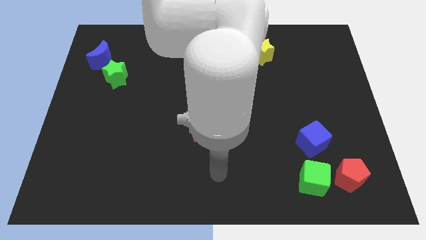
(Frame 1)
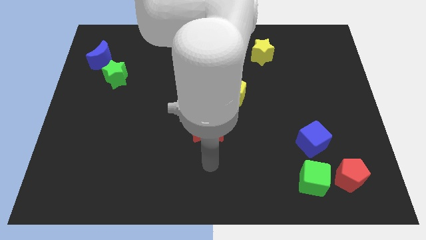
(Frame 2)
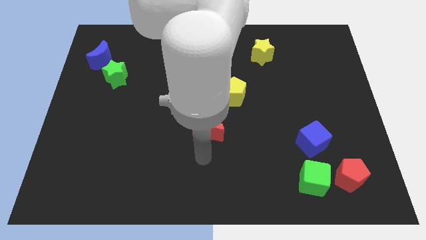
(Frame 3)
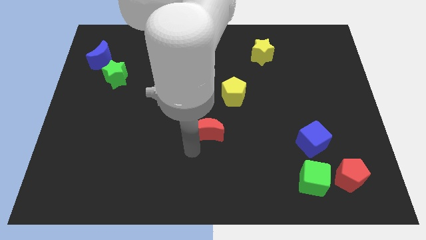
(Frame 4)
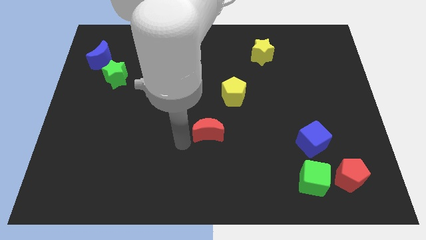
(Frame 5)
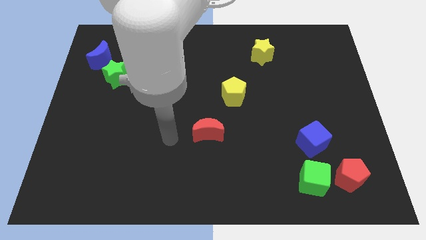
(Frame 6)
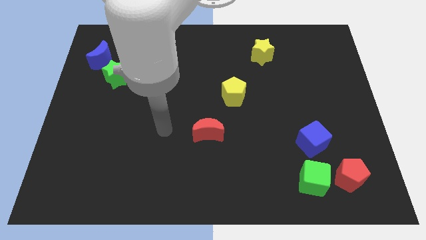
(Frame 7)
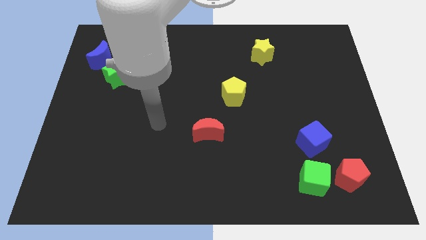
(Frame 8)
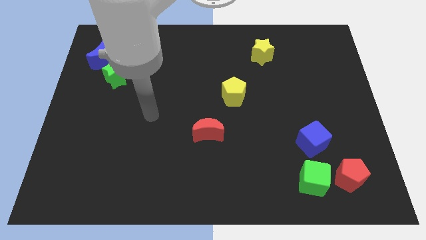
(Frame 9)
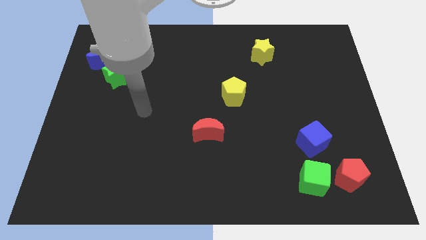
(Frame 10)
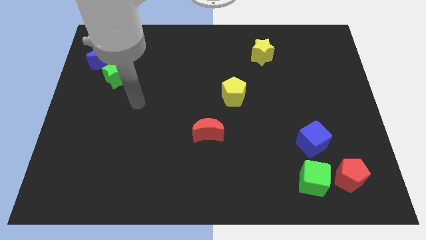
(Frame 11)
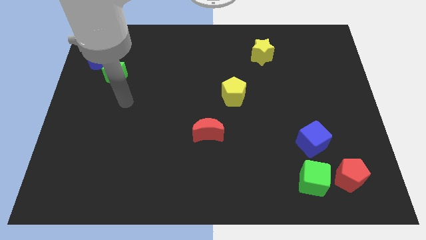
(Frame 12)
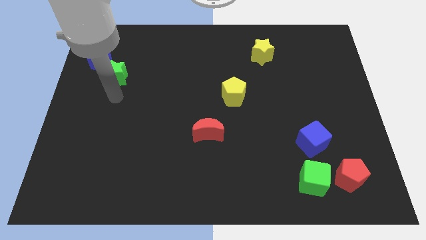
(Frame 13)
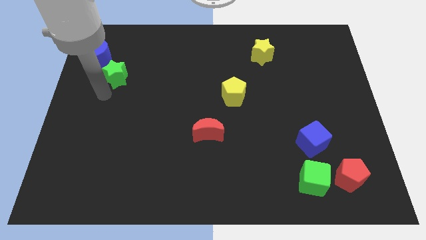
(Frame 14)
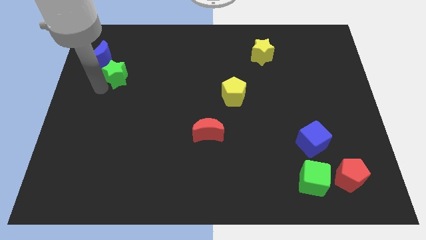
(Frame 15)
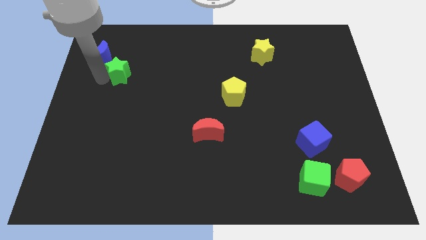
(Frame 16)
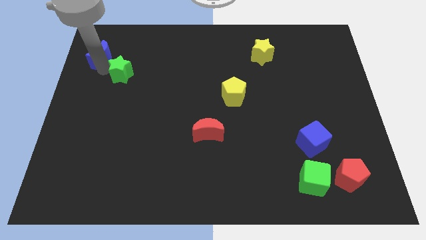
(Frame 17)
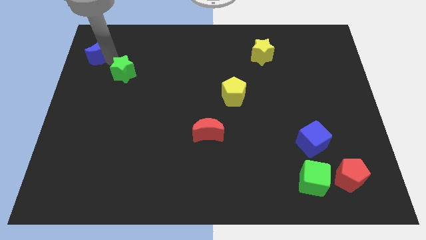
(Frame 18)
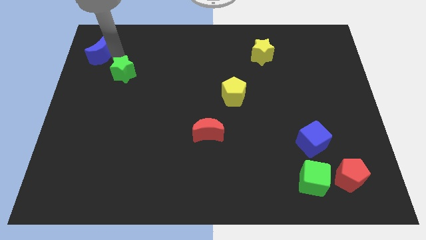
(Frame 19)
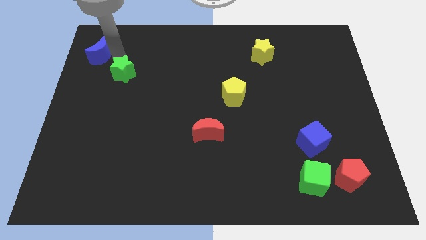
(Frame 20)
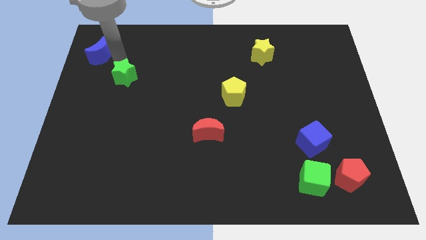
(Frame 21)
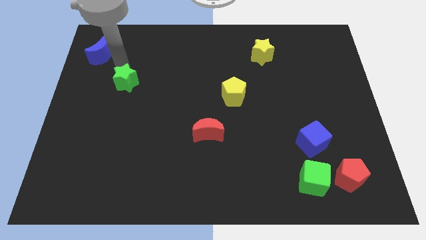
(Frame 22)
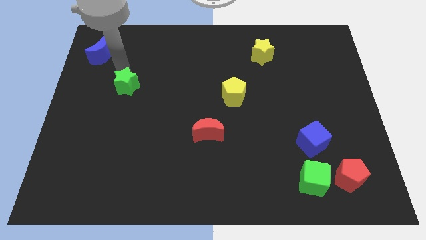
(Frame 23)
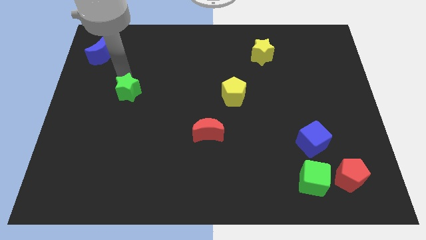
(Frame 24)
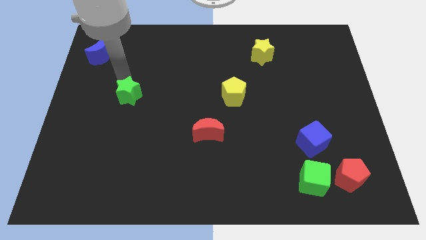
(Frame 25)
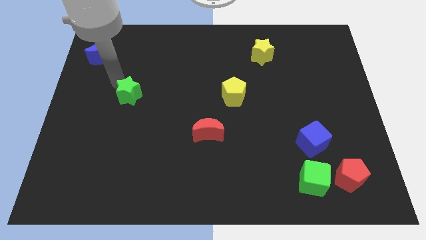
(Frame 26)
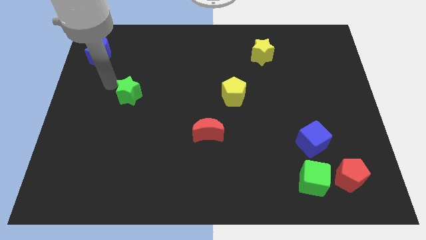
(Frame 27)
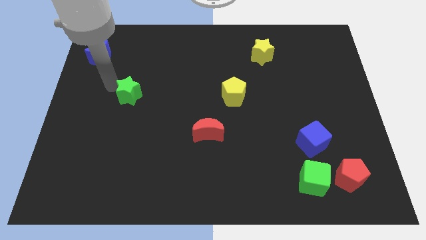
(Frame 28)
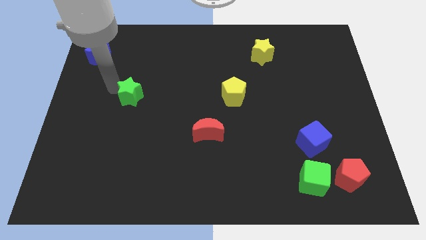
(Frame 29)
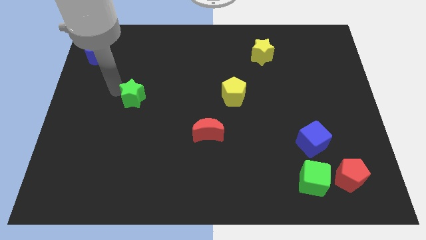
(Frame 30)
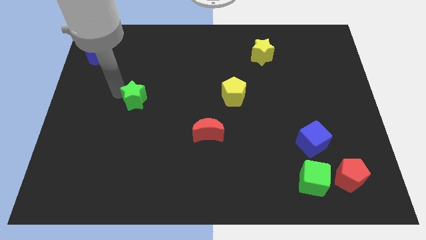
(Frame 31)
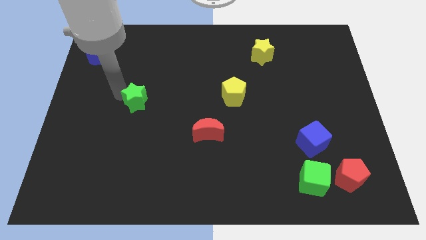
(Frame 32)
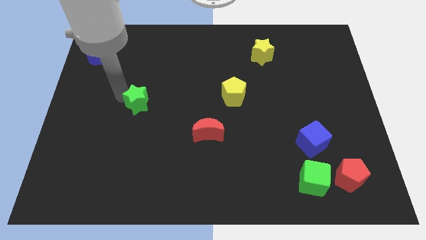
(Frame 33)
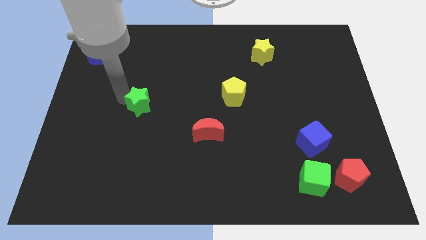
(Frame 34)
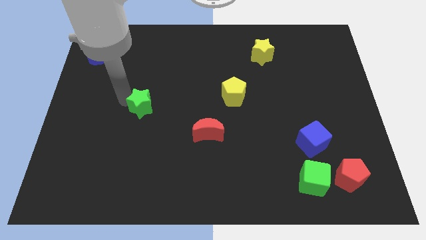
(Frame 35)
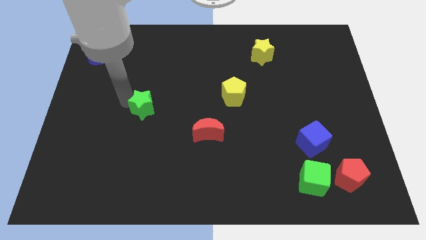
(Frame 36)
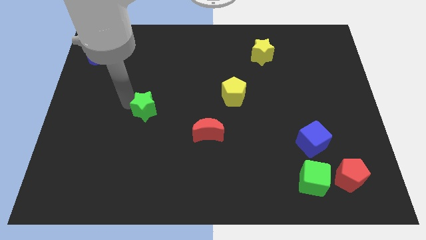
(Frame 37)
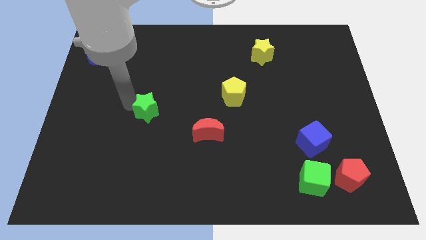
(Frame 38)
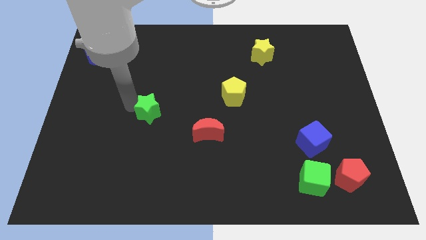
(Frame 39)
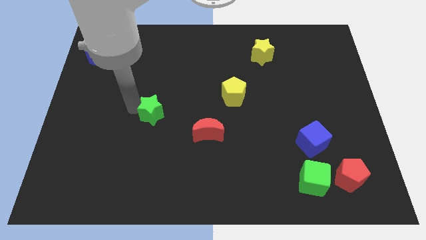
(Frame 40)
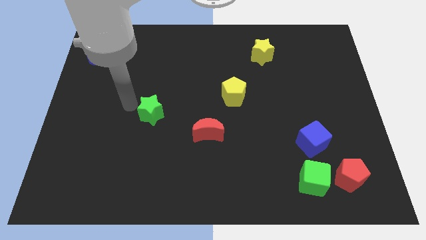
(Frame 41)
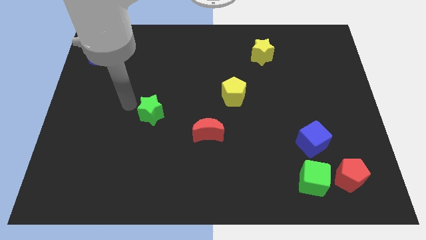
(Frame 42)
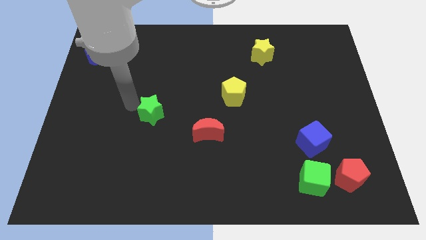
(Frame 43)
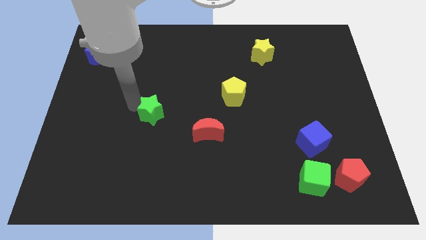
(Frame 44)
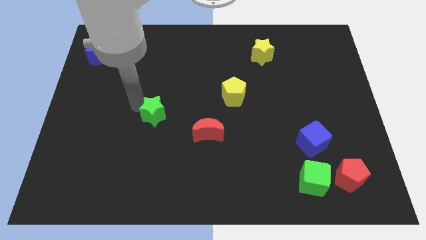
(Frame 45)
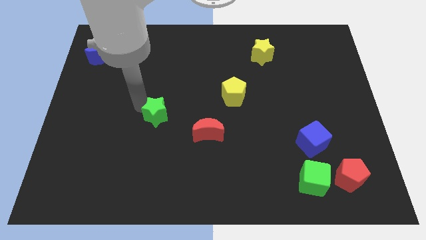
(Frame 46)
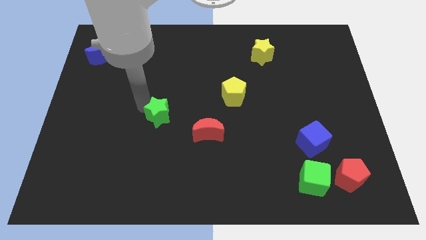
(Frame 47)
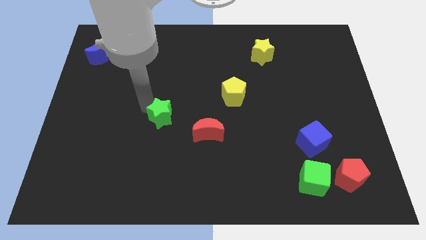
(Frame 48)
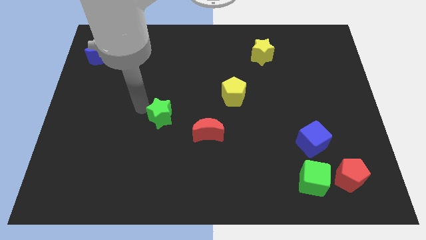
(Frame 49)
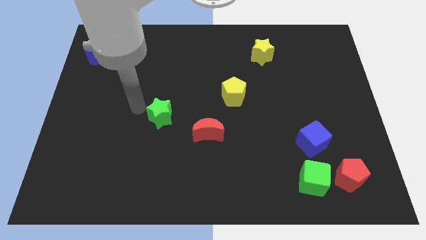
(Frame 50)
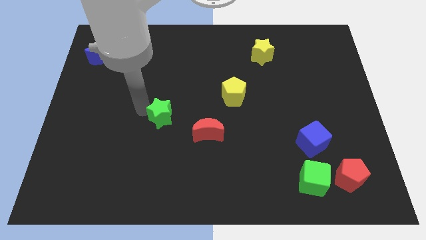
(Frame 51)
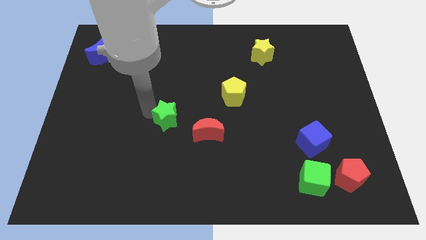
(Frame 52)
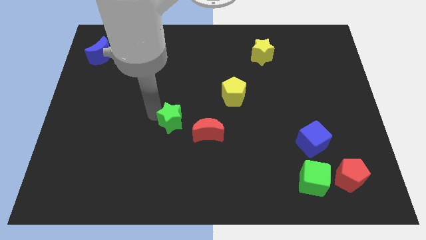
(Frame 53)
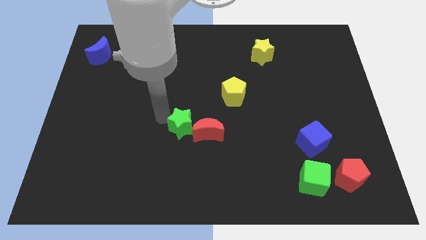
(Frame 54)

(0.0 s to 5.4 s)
slide the green star next to the red moon

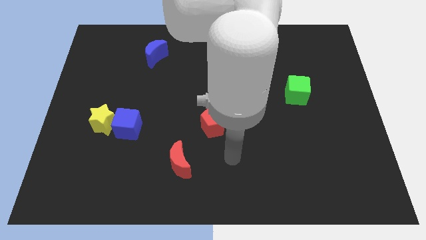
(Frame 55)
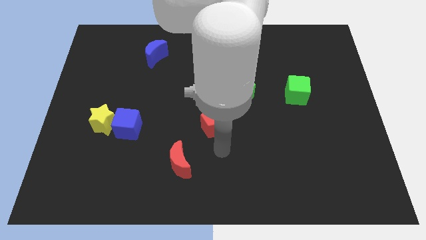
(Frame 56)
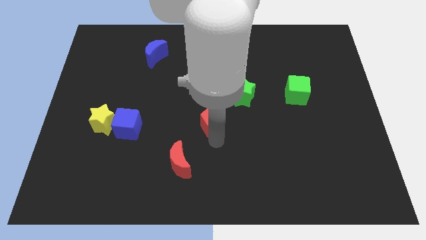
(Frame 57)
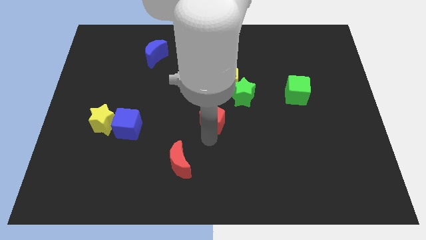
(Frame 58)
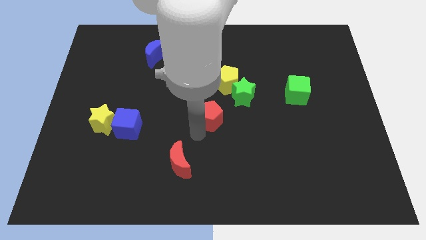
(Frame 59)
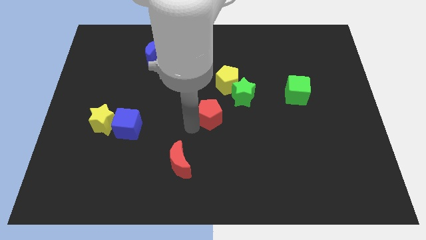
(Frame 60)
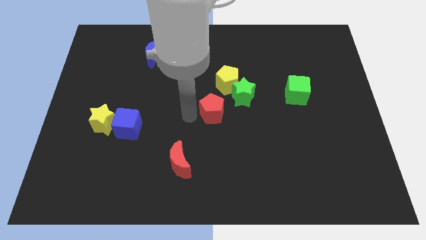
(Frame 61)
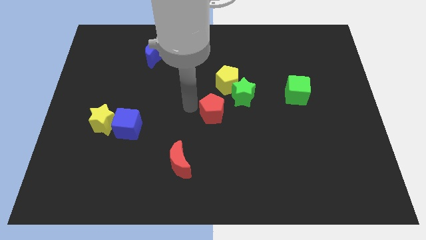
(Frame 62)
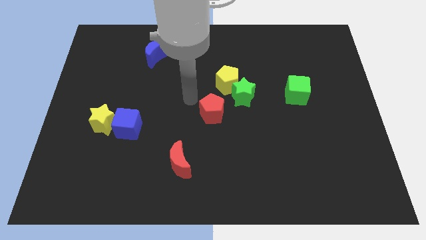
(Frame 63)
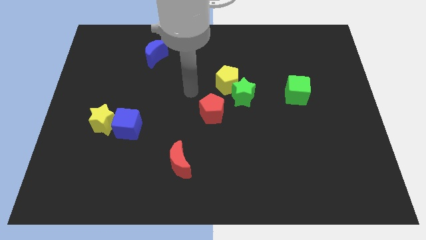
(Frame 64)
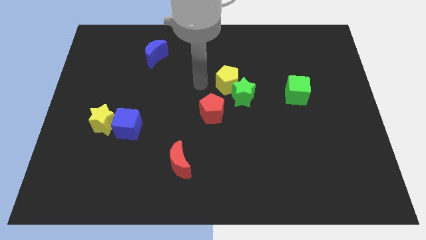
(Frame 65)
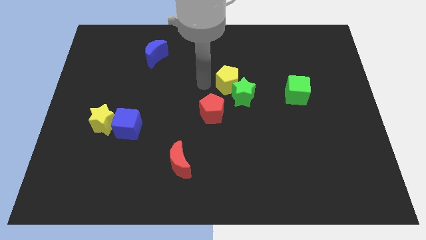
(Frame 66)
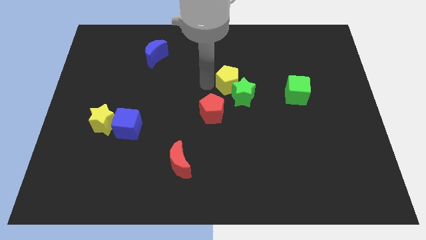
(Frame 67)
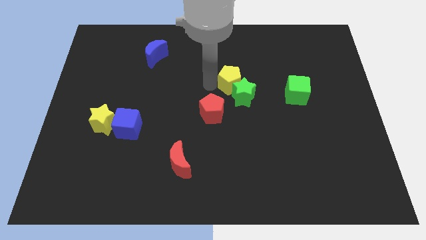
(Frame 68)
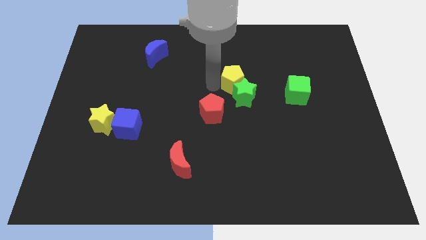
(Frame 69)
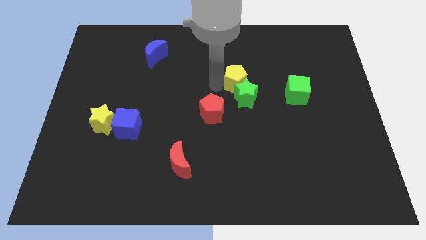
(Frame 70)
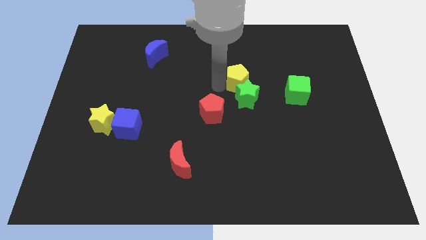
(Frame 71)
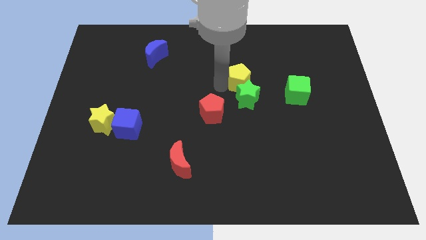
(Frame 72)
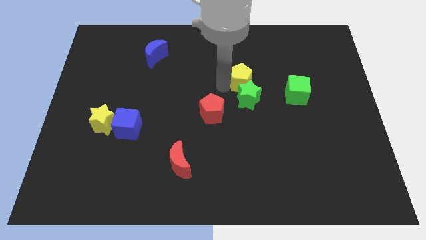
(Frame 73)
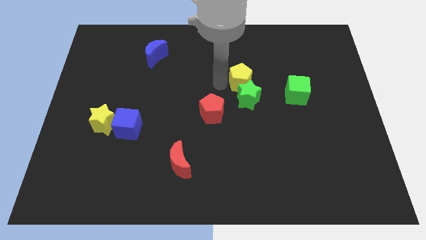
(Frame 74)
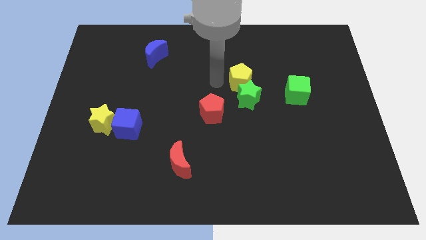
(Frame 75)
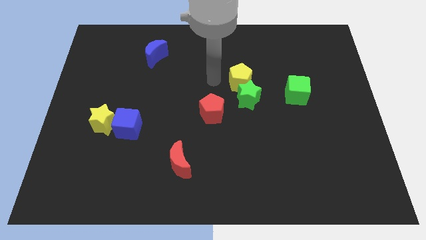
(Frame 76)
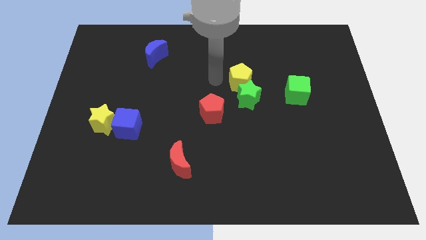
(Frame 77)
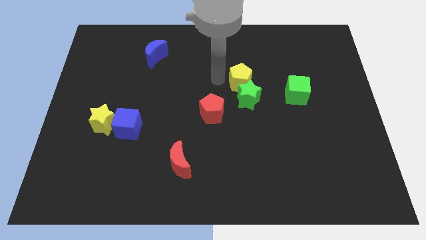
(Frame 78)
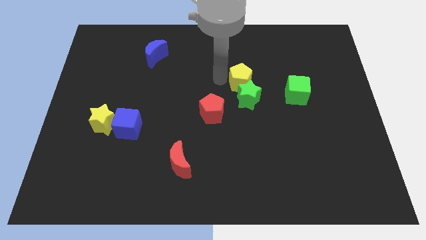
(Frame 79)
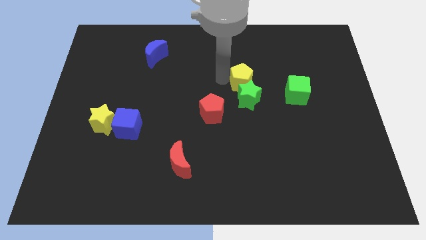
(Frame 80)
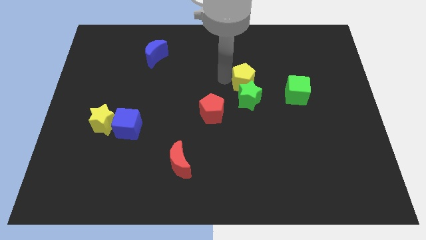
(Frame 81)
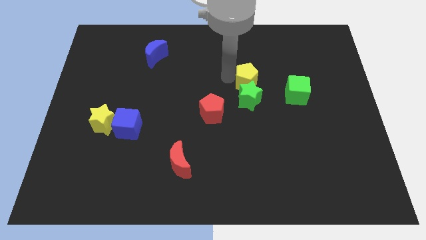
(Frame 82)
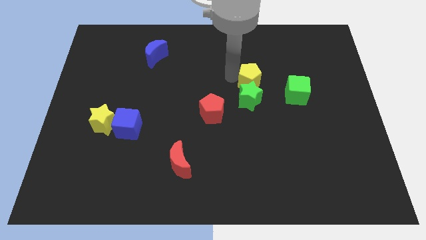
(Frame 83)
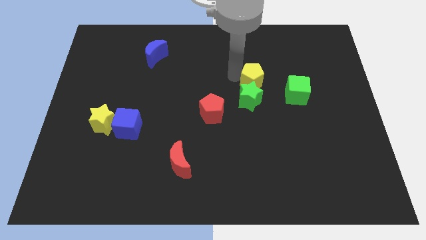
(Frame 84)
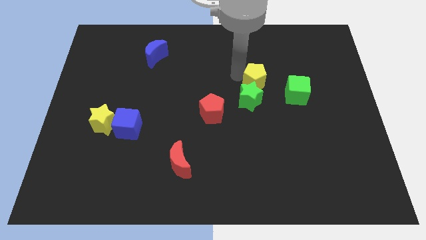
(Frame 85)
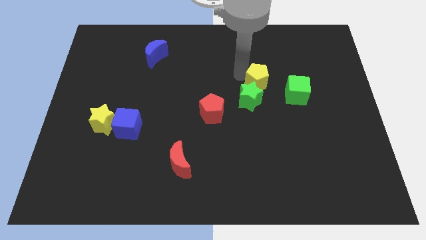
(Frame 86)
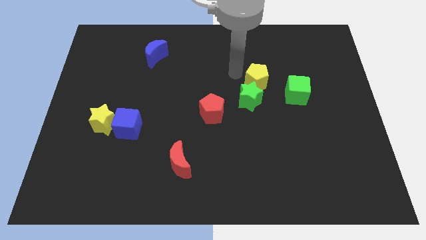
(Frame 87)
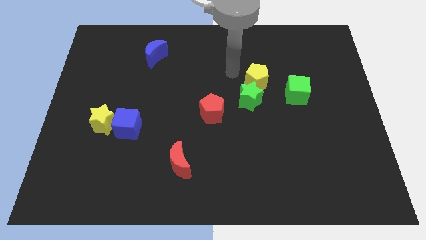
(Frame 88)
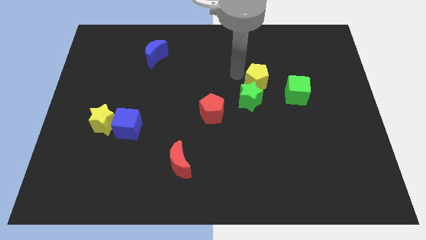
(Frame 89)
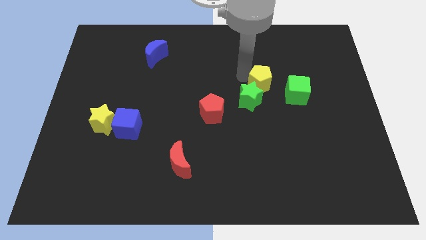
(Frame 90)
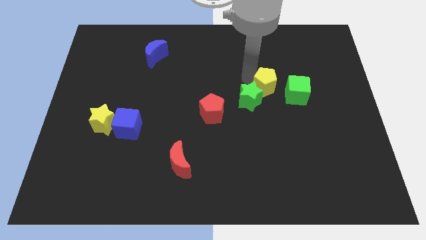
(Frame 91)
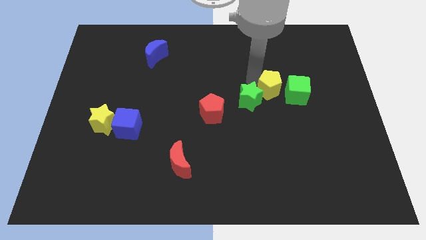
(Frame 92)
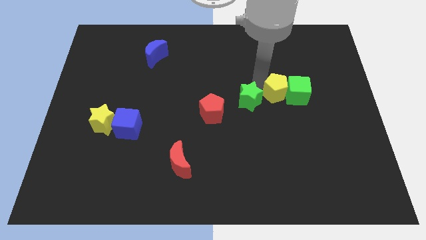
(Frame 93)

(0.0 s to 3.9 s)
move the yellow pentagon next to the green cube
